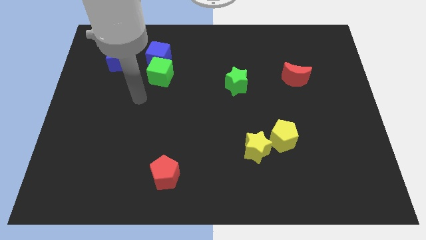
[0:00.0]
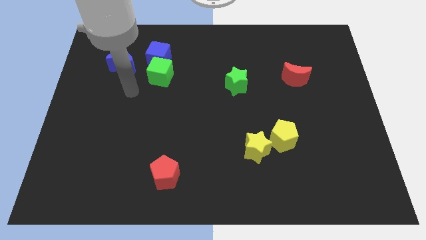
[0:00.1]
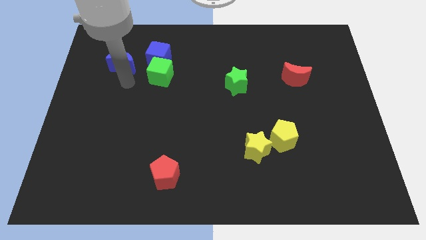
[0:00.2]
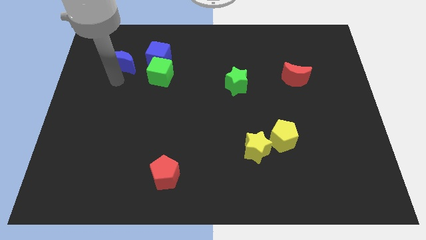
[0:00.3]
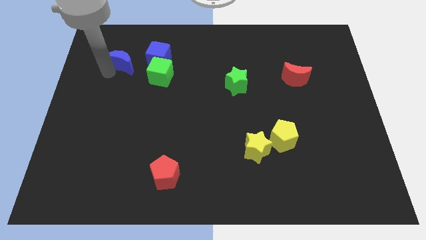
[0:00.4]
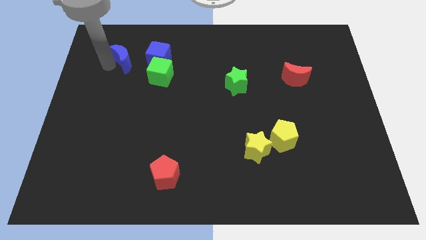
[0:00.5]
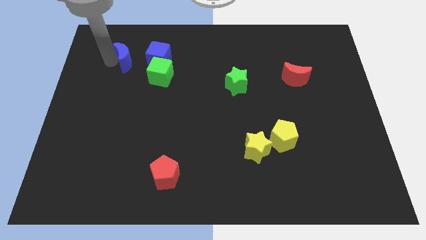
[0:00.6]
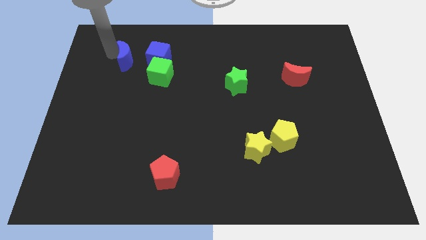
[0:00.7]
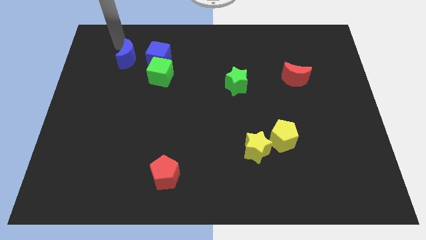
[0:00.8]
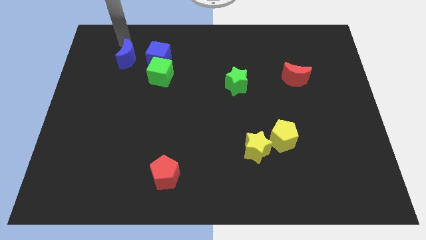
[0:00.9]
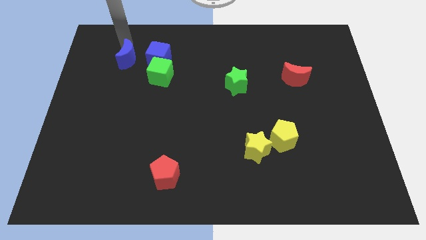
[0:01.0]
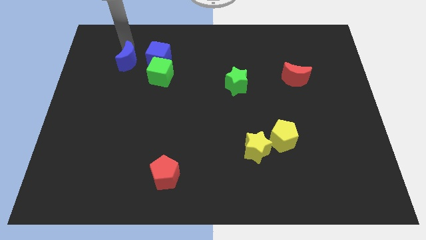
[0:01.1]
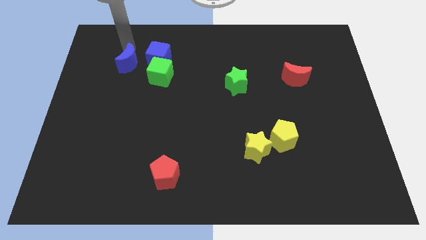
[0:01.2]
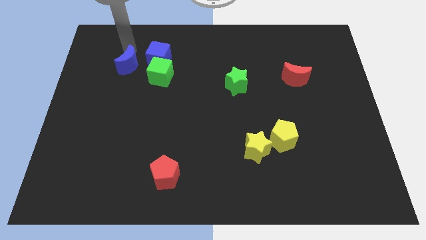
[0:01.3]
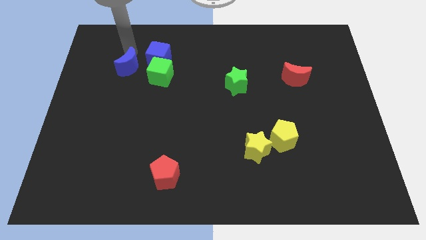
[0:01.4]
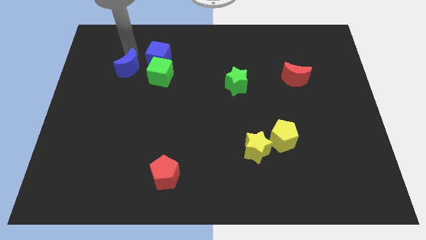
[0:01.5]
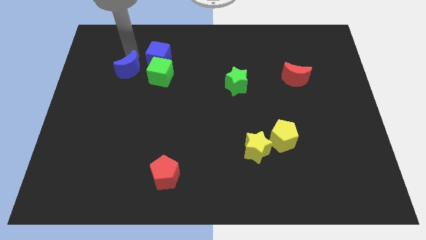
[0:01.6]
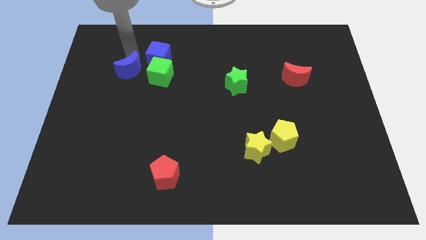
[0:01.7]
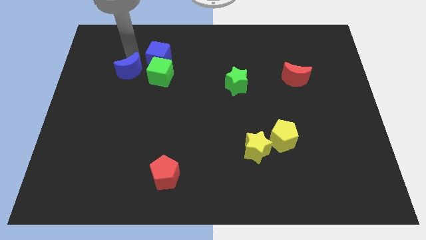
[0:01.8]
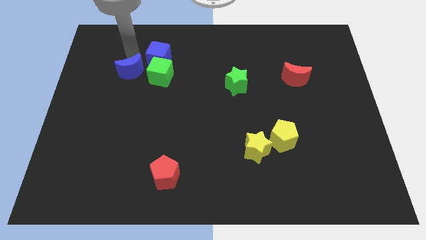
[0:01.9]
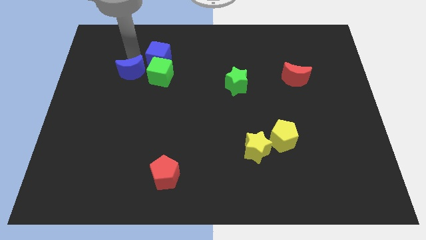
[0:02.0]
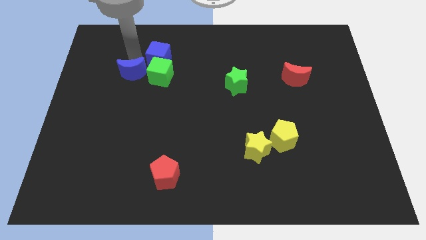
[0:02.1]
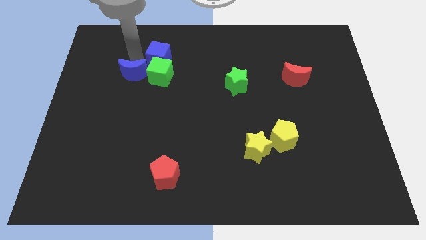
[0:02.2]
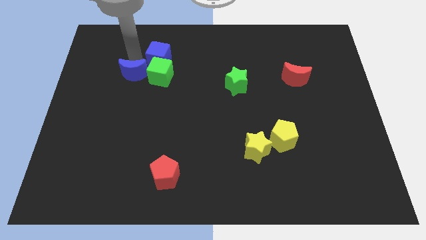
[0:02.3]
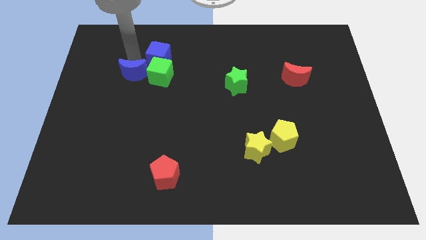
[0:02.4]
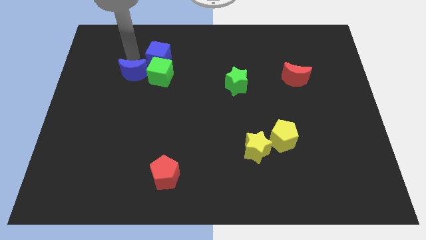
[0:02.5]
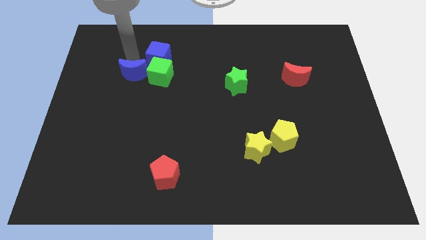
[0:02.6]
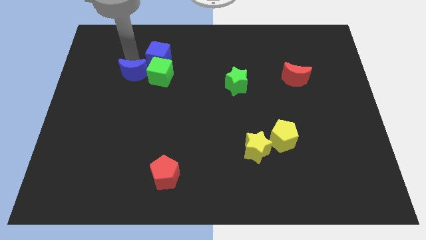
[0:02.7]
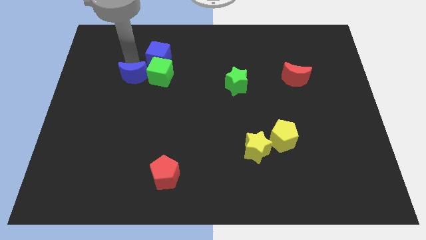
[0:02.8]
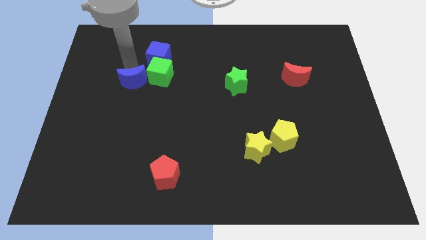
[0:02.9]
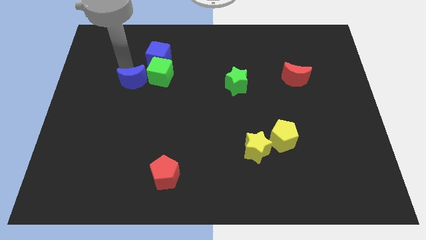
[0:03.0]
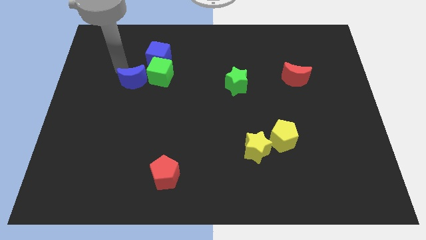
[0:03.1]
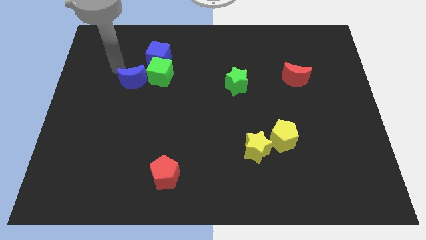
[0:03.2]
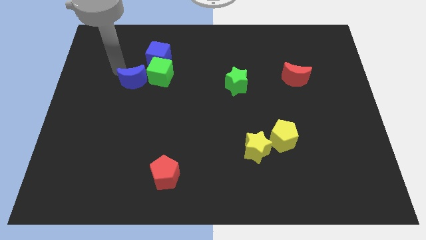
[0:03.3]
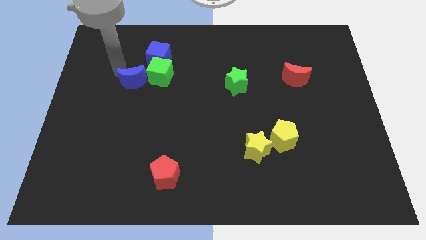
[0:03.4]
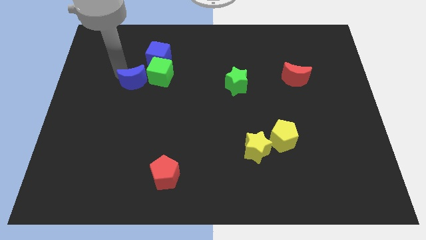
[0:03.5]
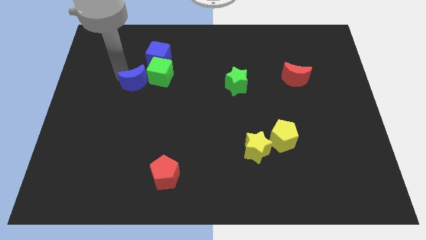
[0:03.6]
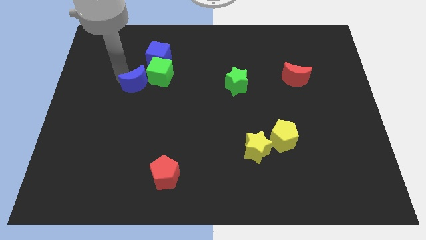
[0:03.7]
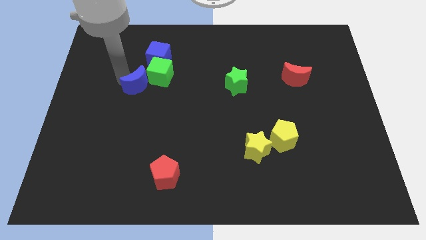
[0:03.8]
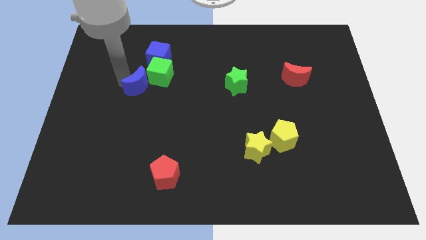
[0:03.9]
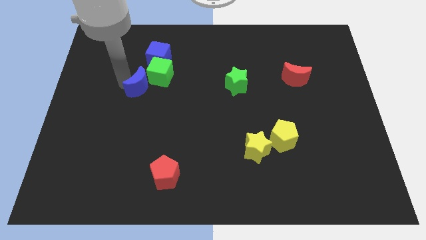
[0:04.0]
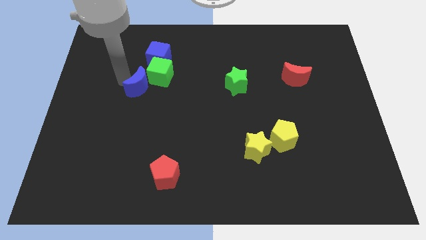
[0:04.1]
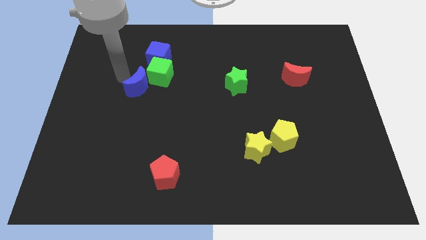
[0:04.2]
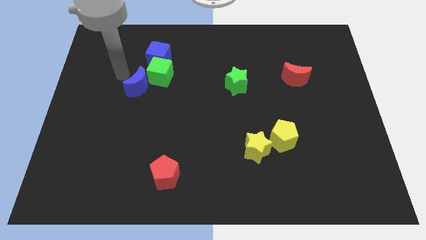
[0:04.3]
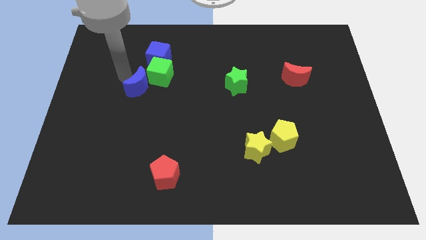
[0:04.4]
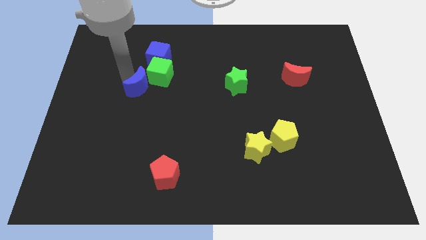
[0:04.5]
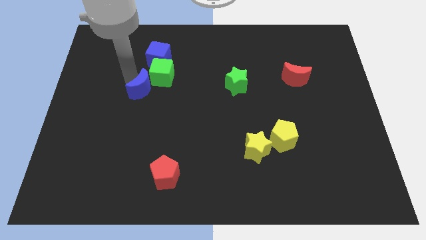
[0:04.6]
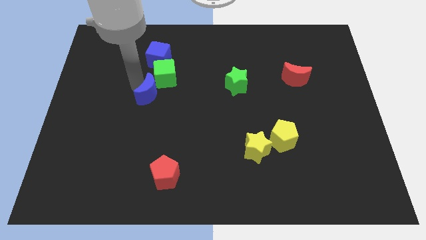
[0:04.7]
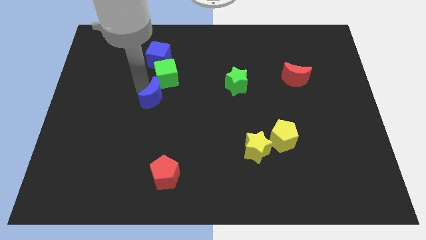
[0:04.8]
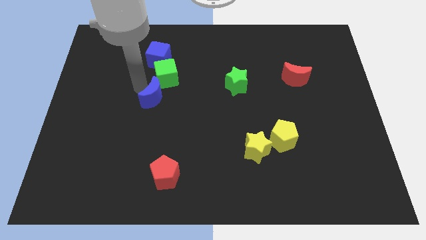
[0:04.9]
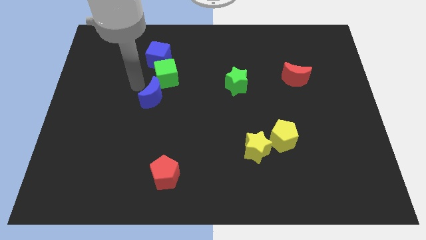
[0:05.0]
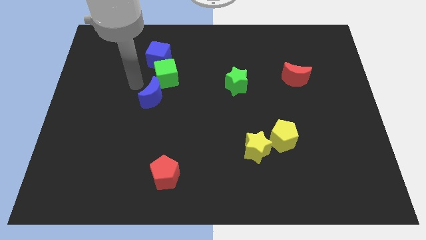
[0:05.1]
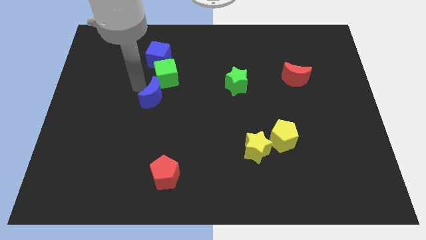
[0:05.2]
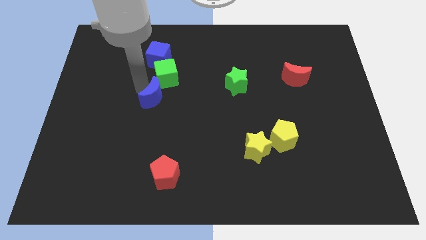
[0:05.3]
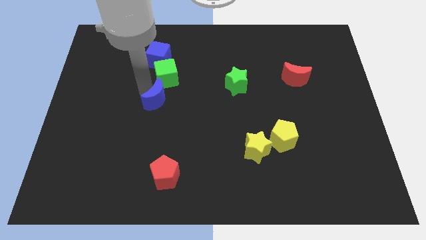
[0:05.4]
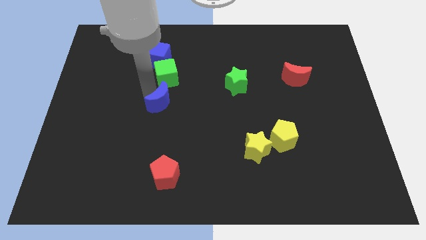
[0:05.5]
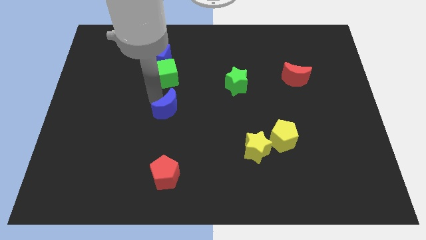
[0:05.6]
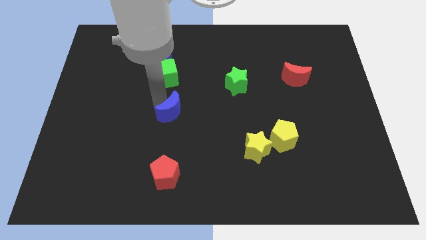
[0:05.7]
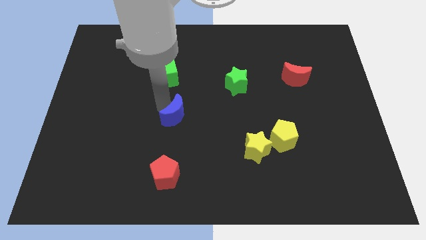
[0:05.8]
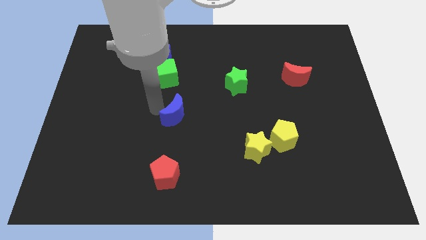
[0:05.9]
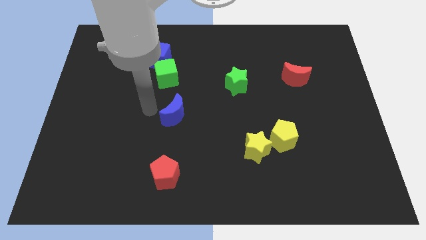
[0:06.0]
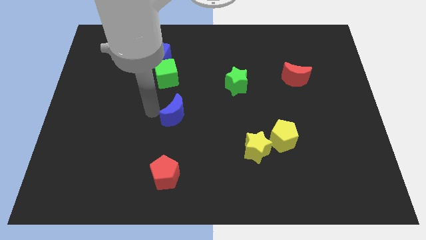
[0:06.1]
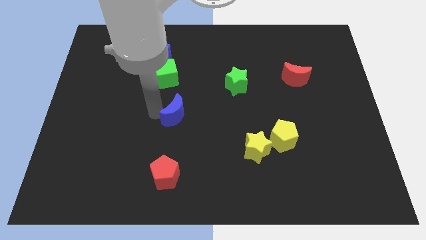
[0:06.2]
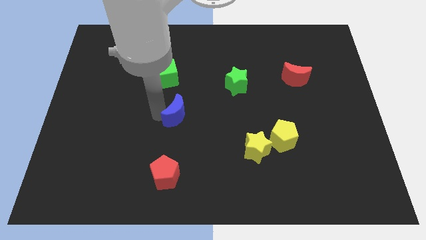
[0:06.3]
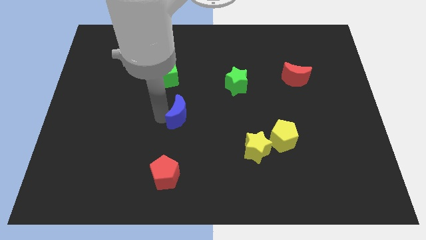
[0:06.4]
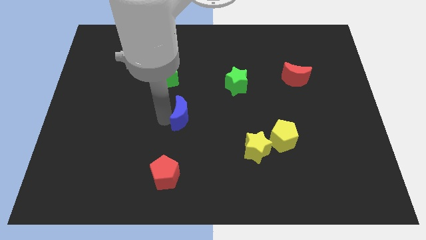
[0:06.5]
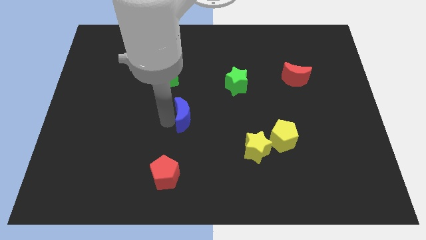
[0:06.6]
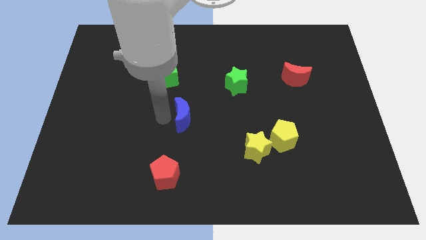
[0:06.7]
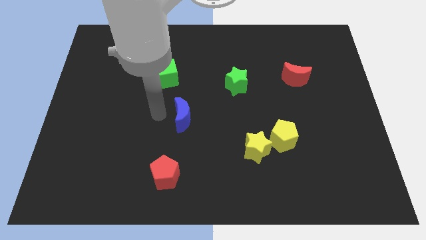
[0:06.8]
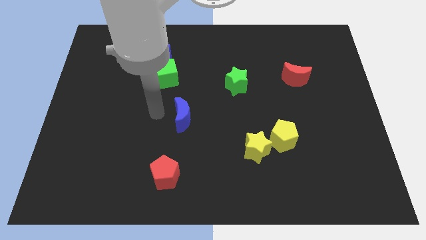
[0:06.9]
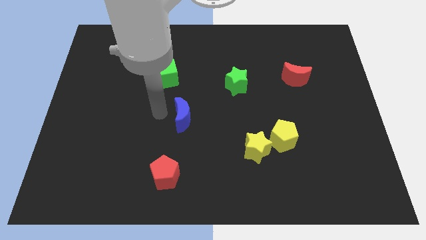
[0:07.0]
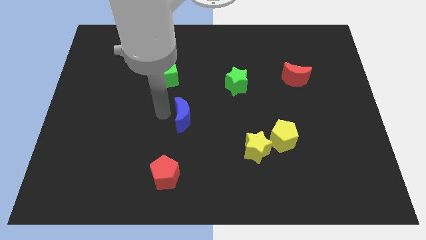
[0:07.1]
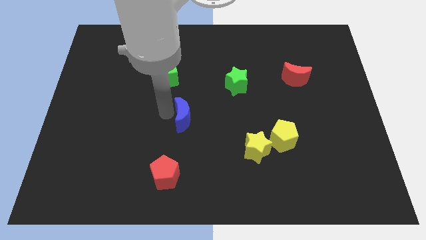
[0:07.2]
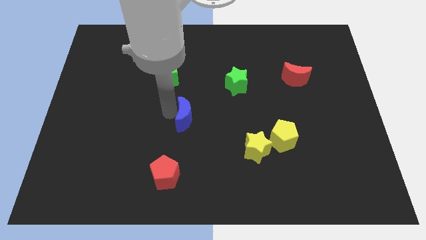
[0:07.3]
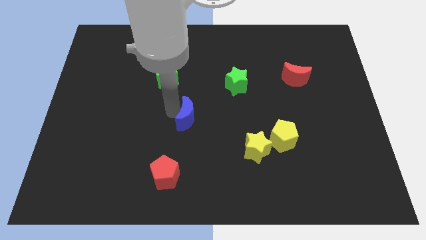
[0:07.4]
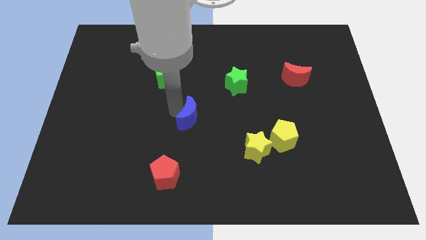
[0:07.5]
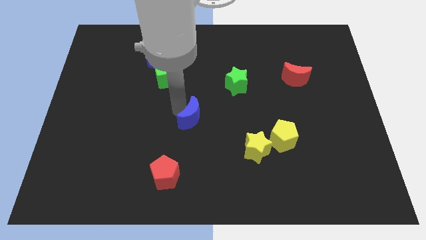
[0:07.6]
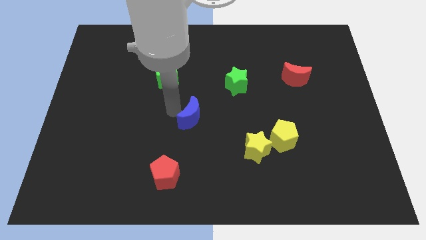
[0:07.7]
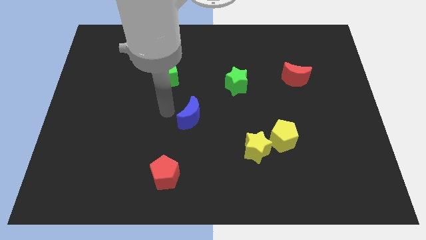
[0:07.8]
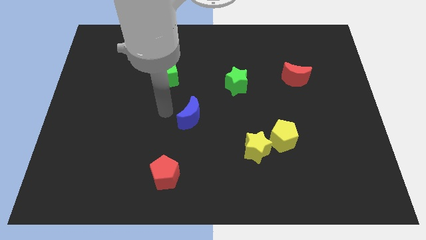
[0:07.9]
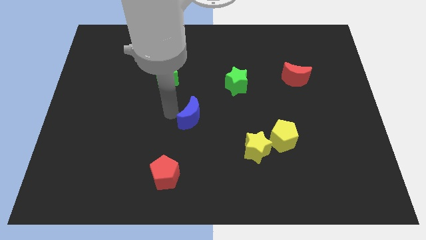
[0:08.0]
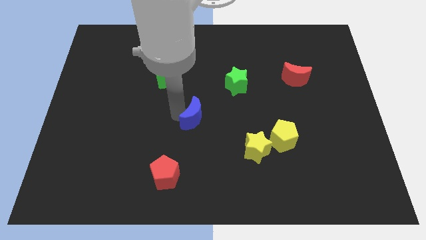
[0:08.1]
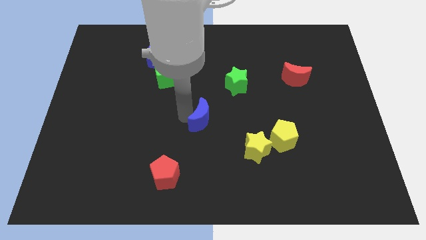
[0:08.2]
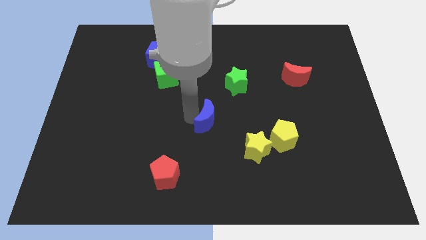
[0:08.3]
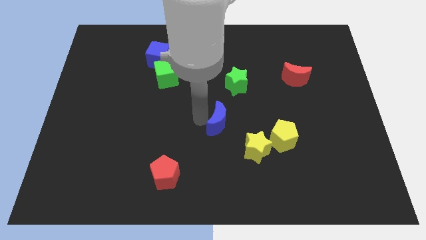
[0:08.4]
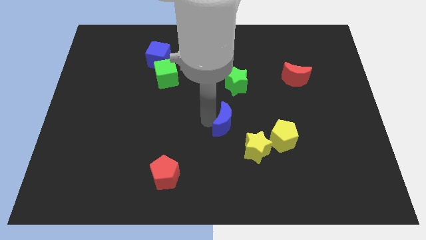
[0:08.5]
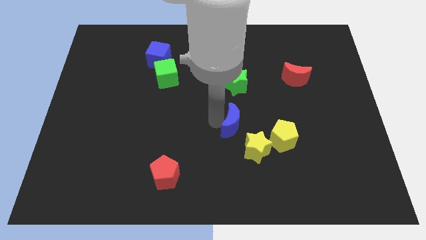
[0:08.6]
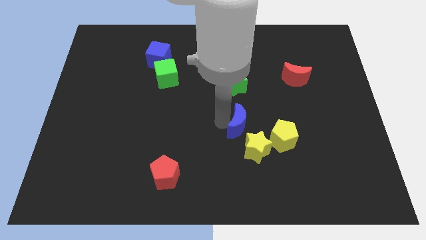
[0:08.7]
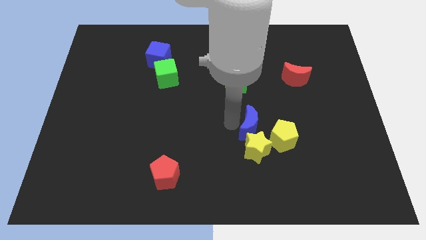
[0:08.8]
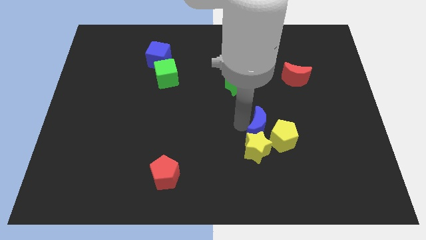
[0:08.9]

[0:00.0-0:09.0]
put the blue moon towards the yellow pentagon
